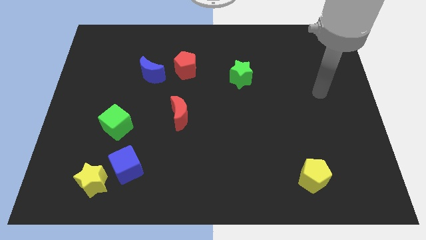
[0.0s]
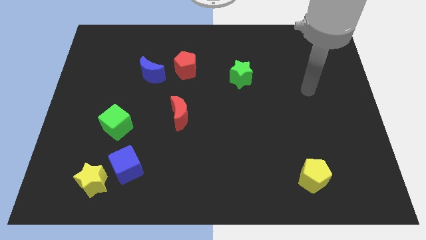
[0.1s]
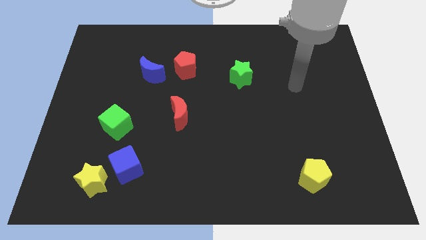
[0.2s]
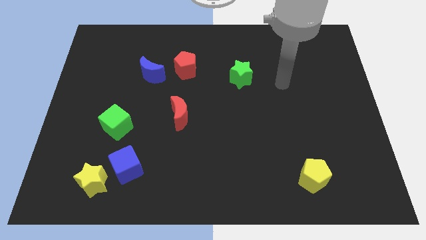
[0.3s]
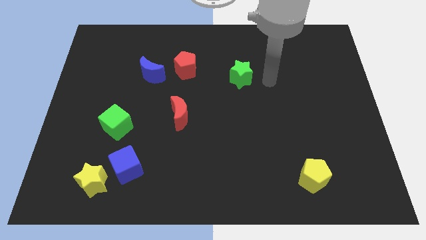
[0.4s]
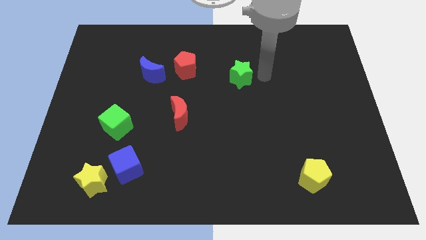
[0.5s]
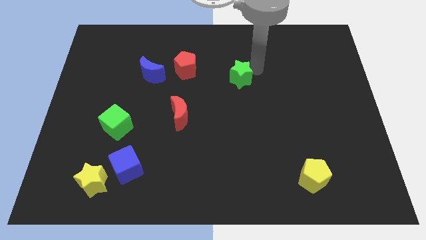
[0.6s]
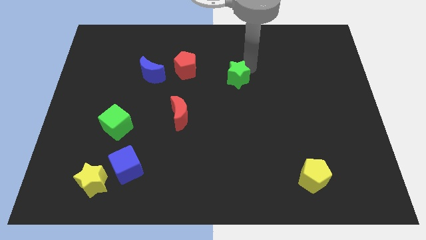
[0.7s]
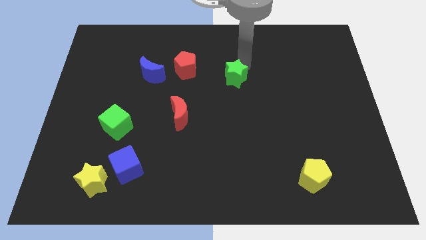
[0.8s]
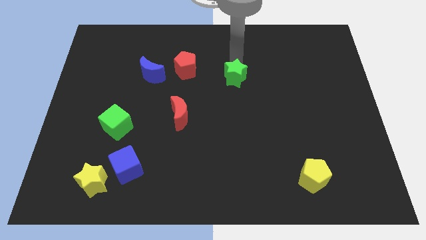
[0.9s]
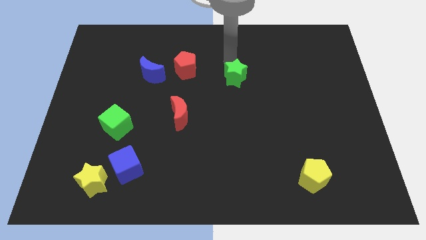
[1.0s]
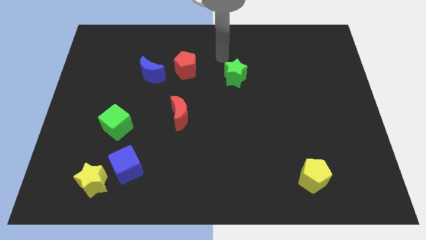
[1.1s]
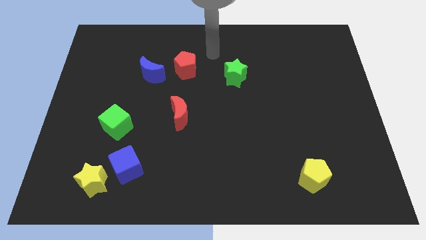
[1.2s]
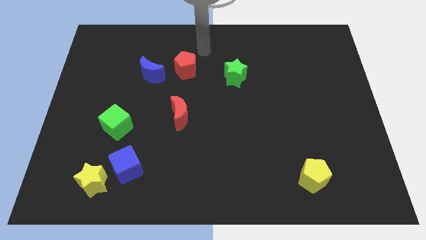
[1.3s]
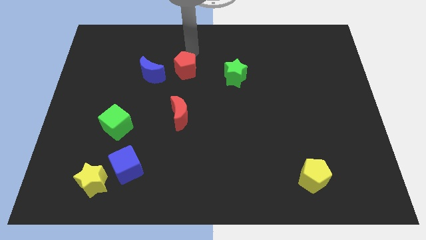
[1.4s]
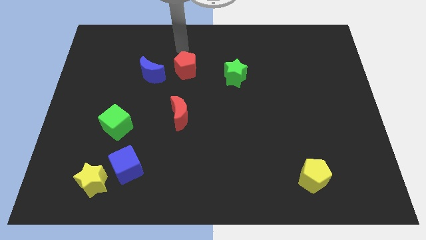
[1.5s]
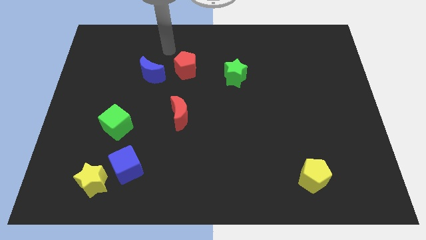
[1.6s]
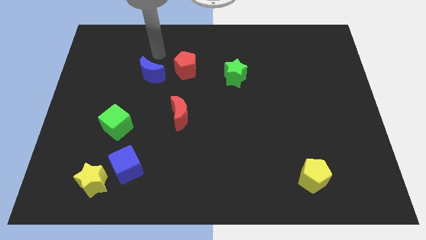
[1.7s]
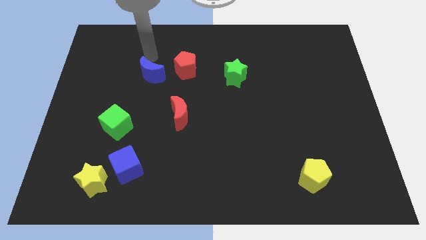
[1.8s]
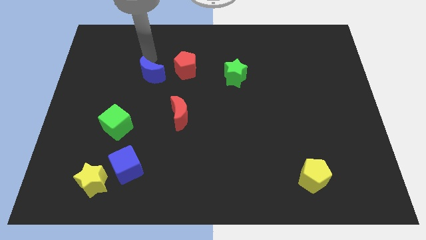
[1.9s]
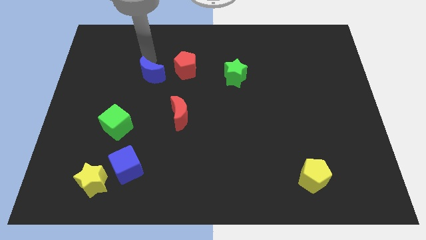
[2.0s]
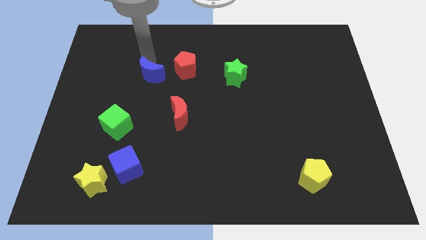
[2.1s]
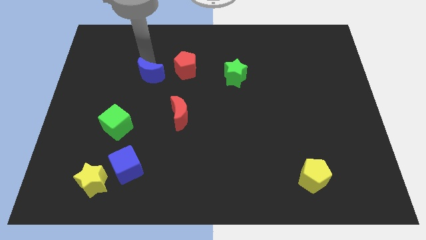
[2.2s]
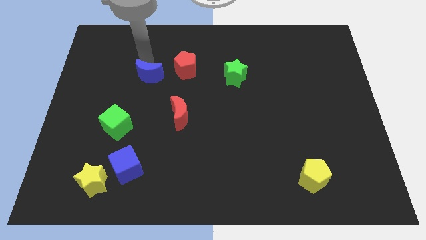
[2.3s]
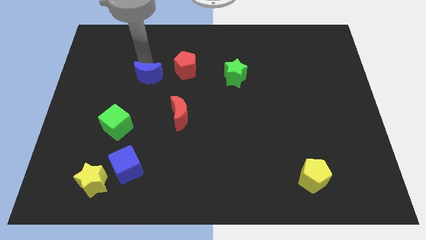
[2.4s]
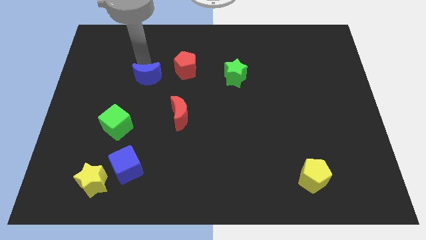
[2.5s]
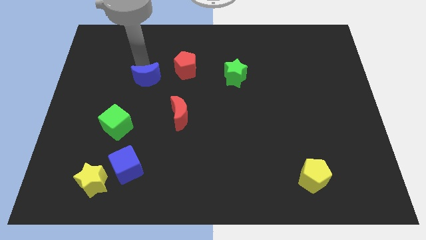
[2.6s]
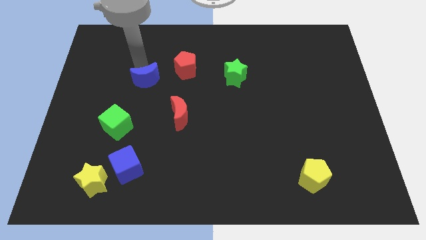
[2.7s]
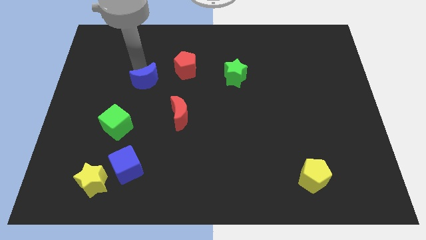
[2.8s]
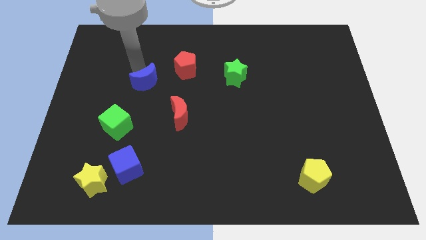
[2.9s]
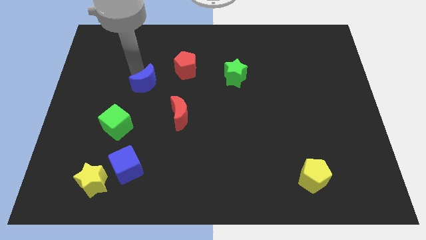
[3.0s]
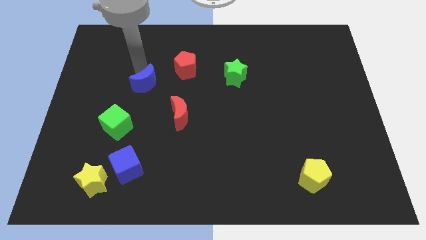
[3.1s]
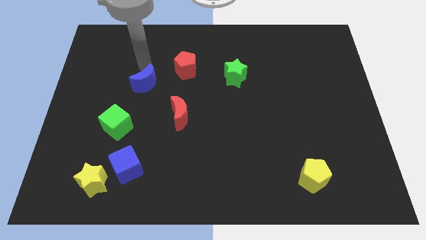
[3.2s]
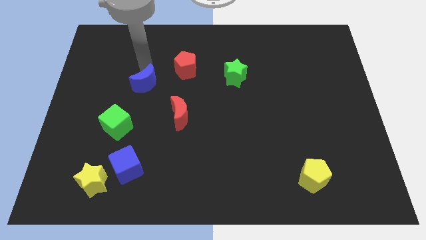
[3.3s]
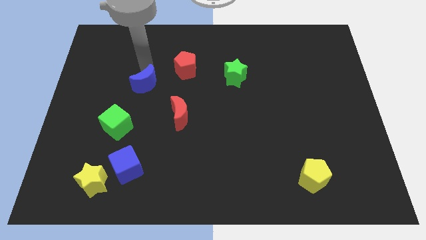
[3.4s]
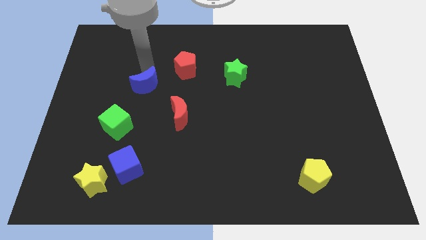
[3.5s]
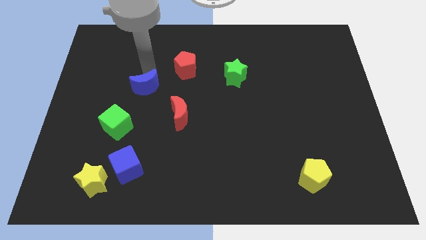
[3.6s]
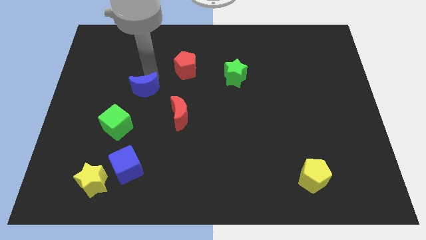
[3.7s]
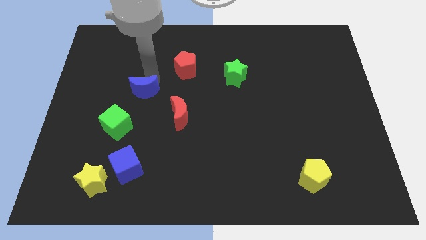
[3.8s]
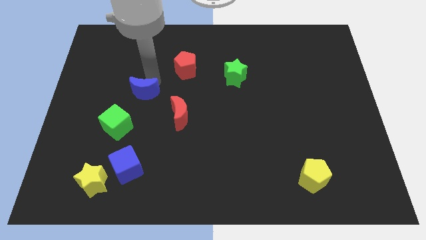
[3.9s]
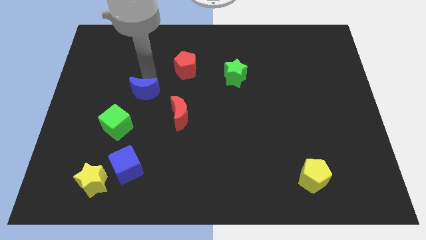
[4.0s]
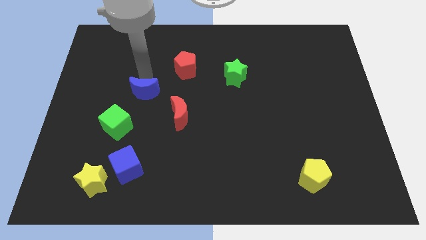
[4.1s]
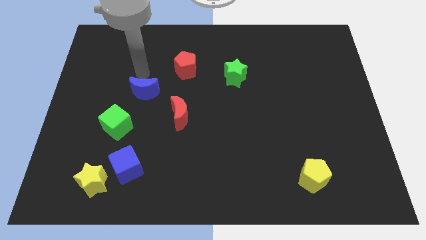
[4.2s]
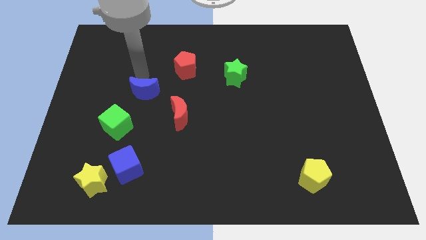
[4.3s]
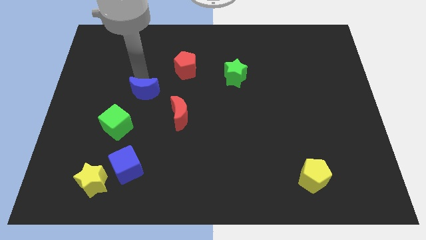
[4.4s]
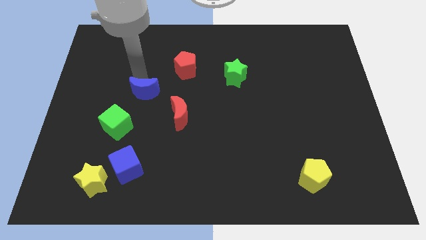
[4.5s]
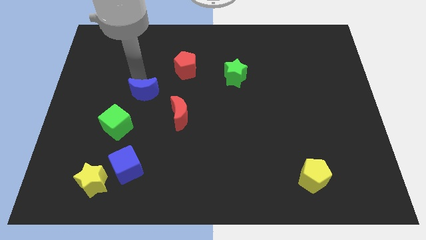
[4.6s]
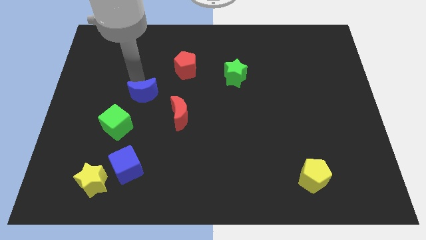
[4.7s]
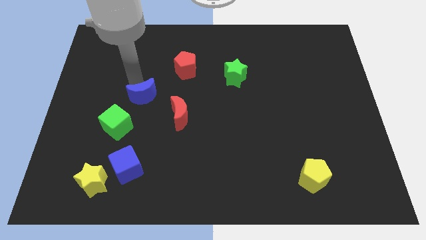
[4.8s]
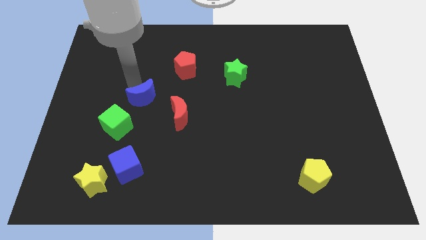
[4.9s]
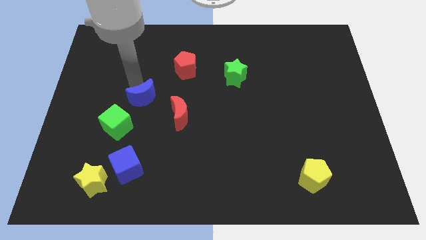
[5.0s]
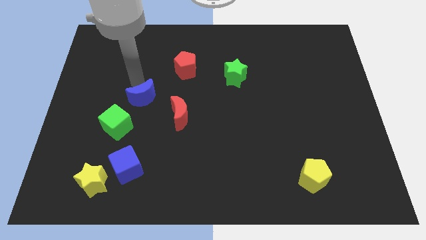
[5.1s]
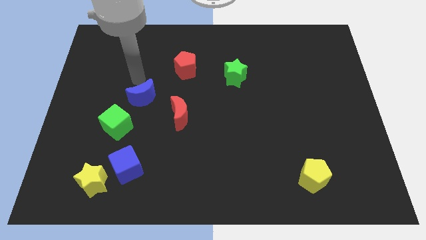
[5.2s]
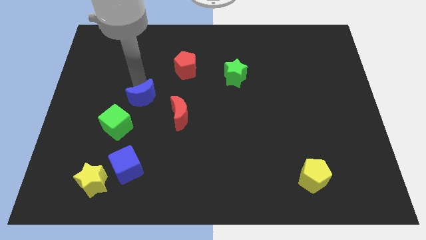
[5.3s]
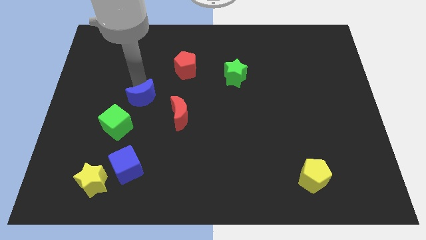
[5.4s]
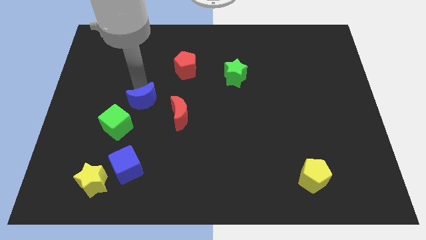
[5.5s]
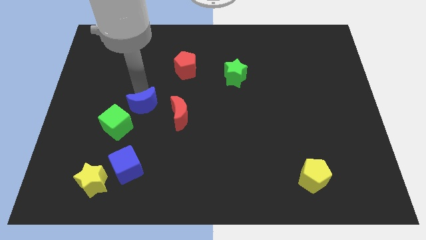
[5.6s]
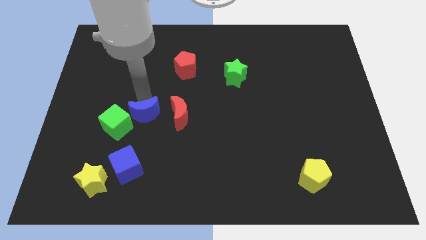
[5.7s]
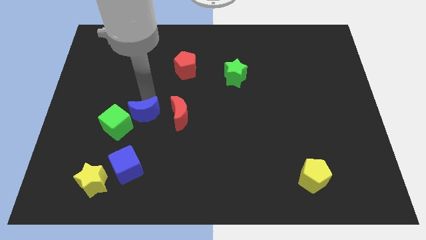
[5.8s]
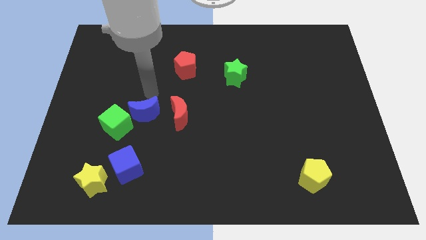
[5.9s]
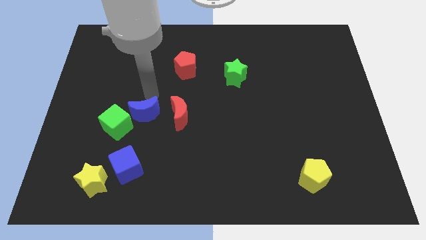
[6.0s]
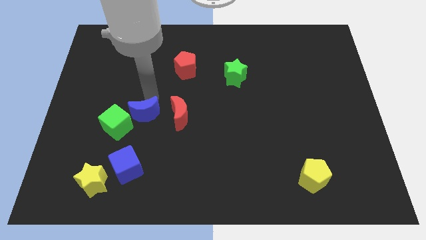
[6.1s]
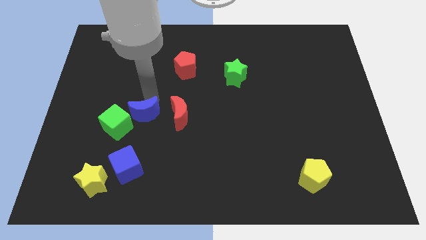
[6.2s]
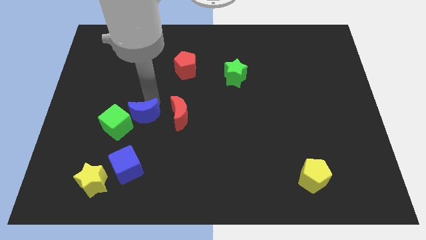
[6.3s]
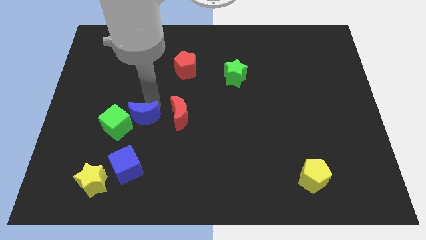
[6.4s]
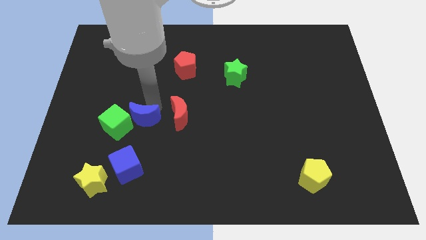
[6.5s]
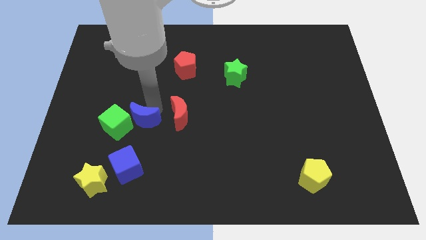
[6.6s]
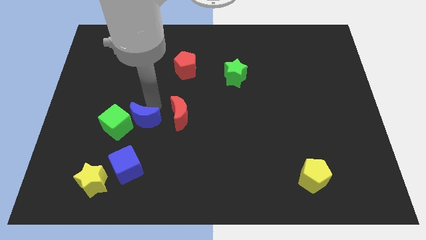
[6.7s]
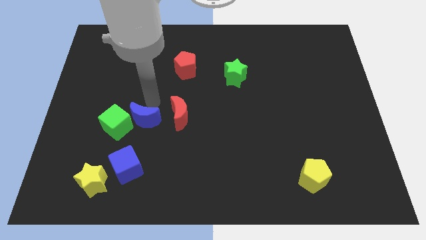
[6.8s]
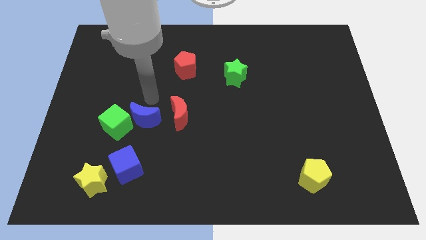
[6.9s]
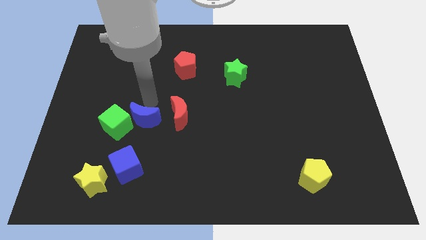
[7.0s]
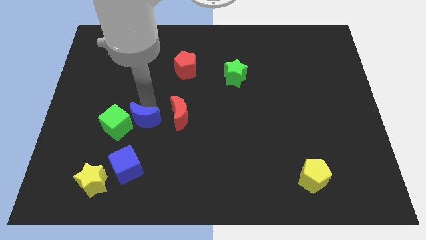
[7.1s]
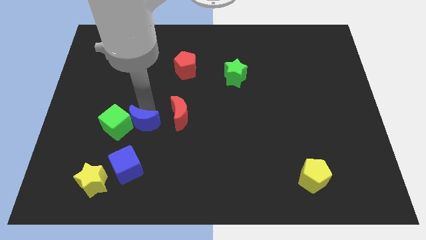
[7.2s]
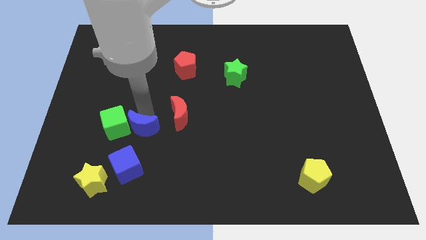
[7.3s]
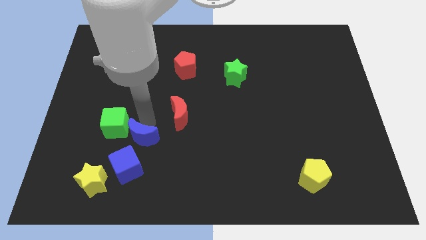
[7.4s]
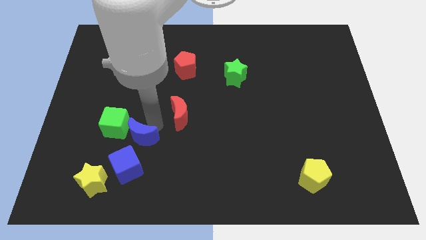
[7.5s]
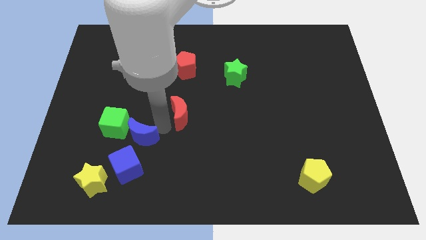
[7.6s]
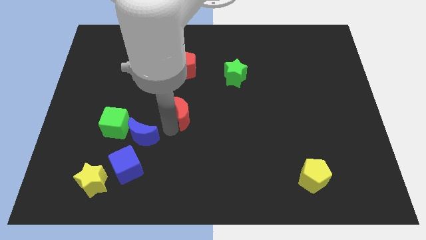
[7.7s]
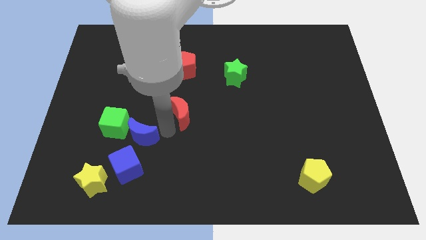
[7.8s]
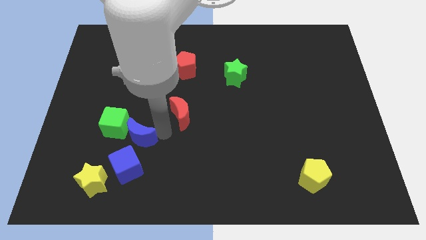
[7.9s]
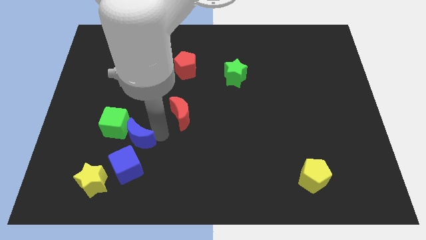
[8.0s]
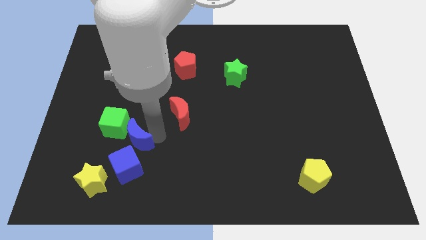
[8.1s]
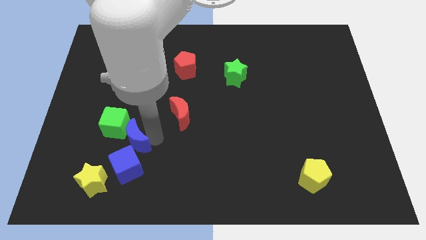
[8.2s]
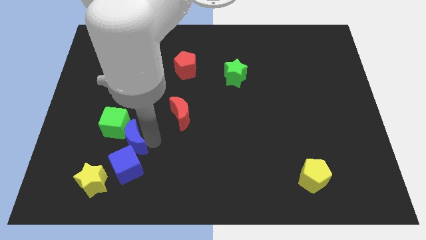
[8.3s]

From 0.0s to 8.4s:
move the blue moon diagonally up and to the left of the blue cube
